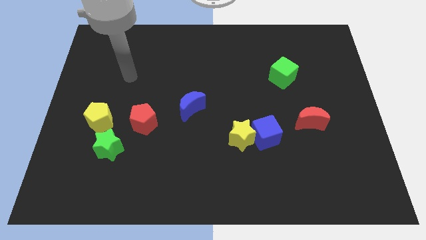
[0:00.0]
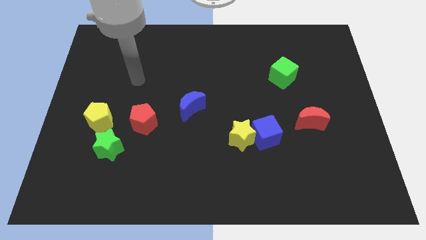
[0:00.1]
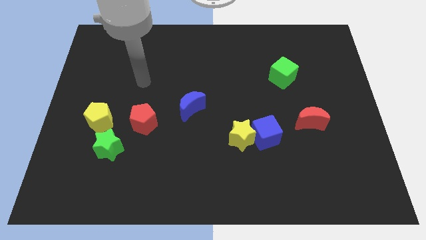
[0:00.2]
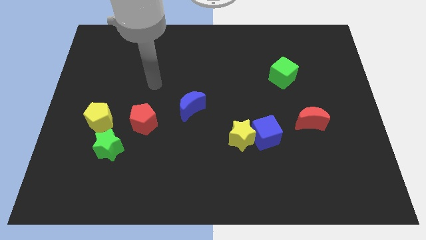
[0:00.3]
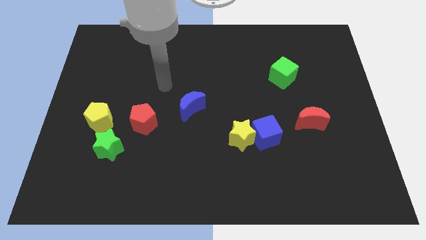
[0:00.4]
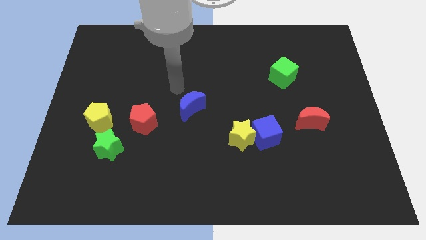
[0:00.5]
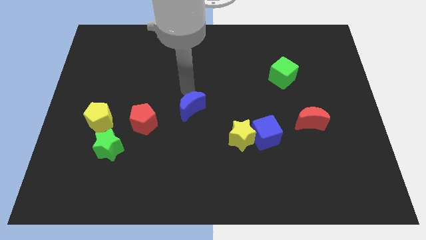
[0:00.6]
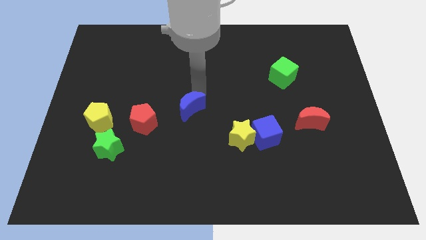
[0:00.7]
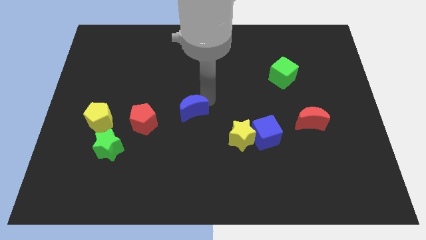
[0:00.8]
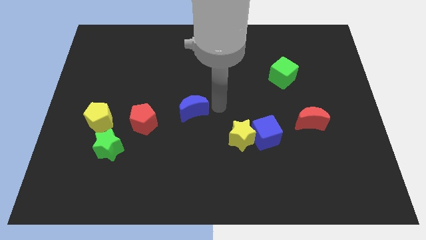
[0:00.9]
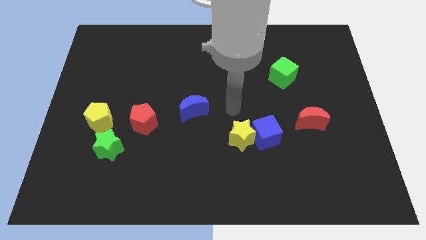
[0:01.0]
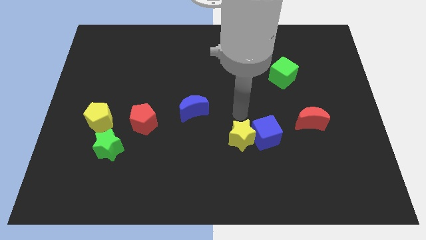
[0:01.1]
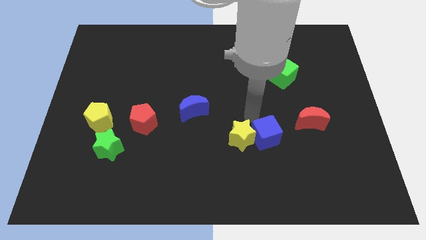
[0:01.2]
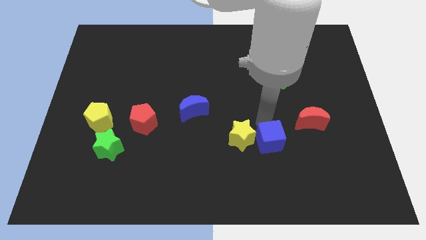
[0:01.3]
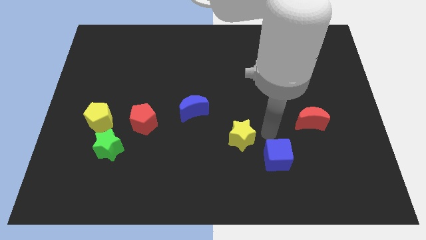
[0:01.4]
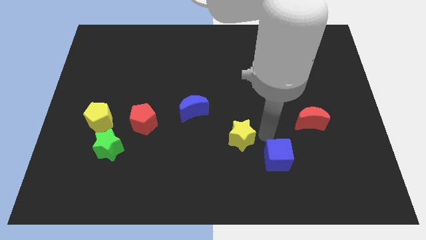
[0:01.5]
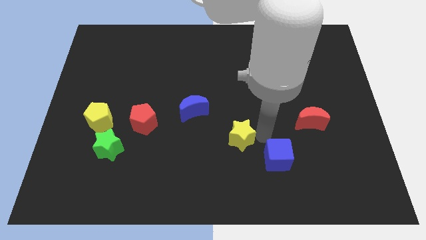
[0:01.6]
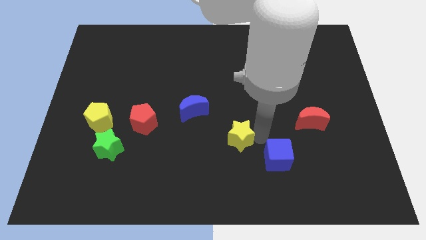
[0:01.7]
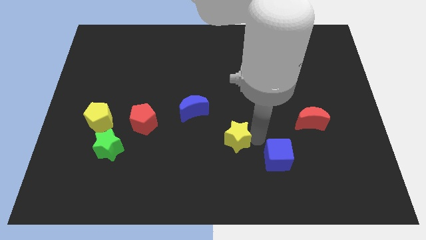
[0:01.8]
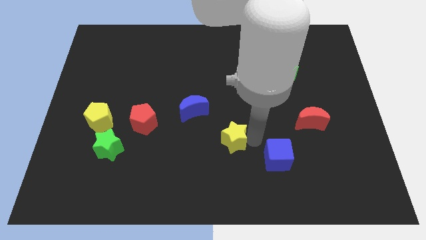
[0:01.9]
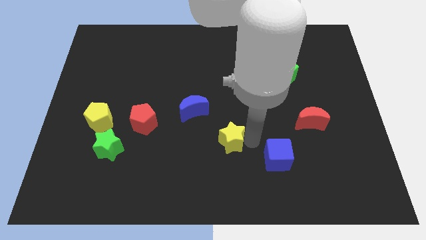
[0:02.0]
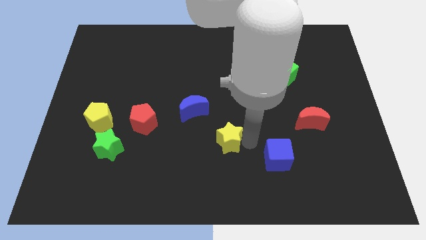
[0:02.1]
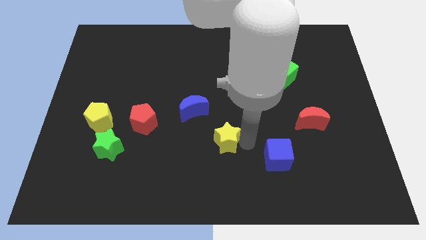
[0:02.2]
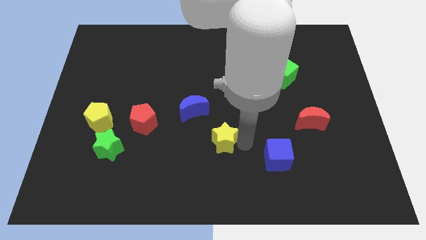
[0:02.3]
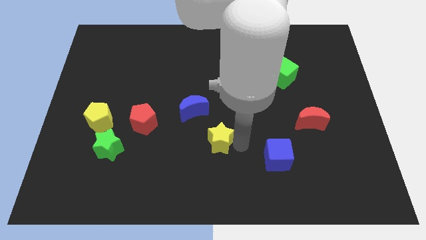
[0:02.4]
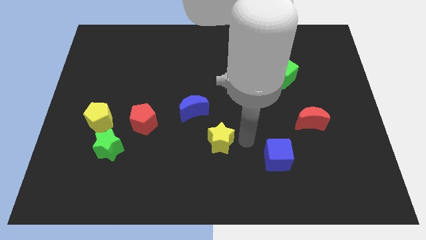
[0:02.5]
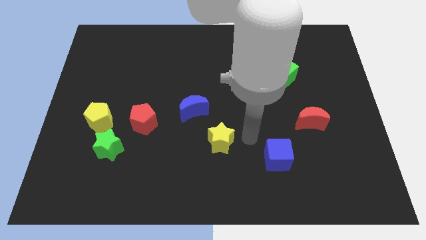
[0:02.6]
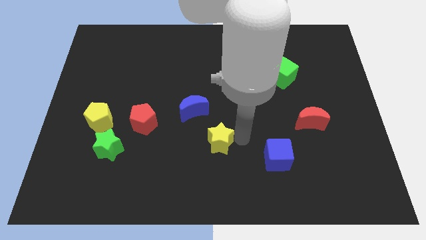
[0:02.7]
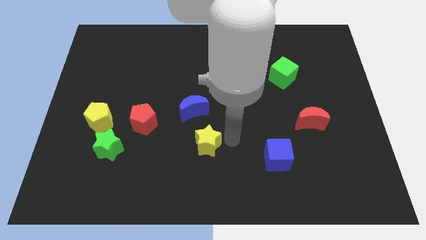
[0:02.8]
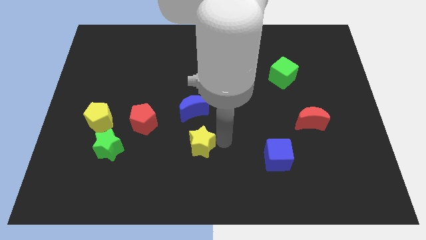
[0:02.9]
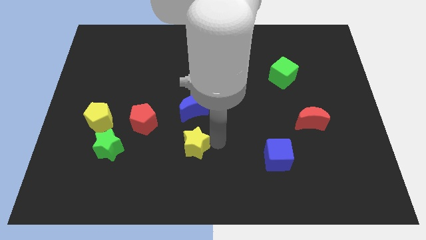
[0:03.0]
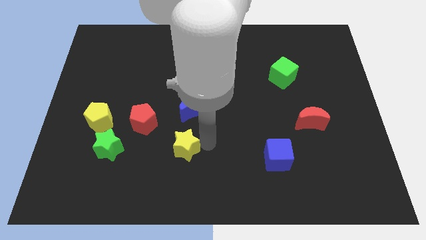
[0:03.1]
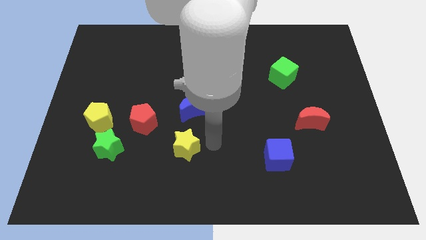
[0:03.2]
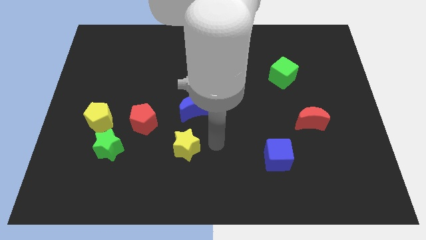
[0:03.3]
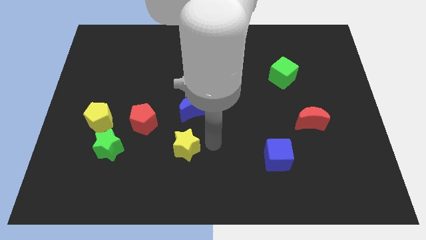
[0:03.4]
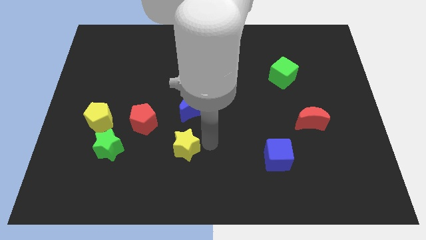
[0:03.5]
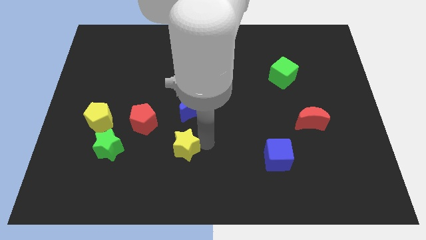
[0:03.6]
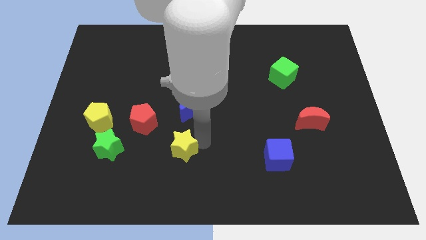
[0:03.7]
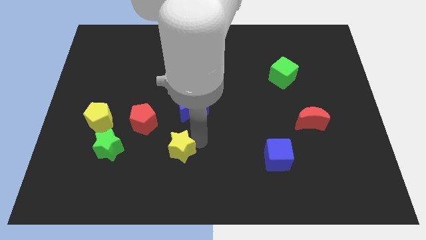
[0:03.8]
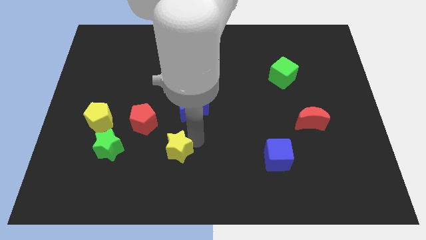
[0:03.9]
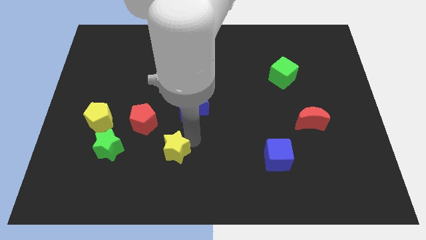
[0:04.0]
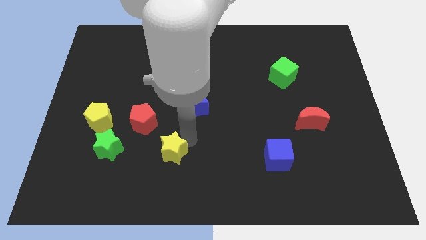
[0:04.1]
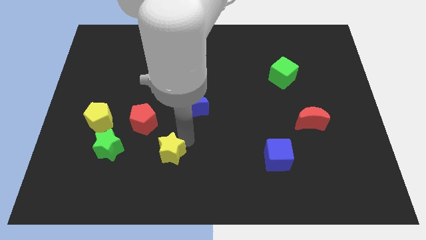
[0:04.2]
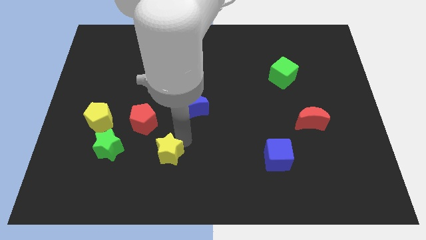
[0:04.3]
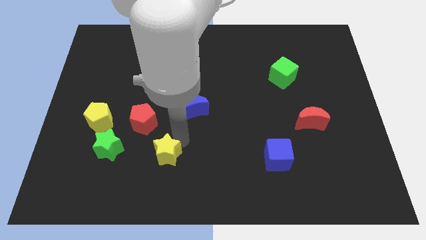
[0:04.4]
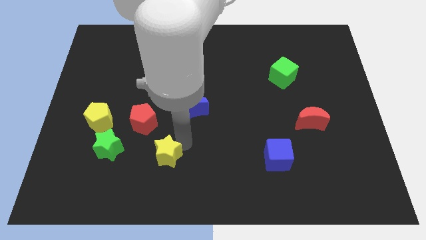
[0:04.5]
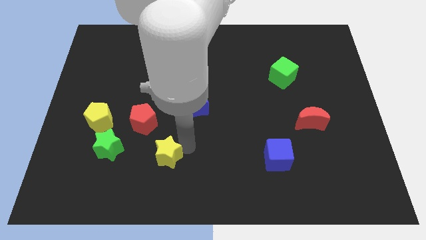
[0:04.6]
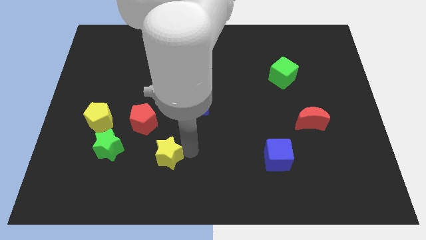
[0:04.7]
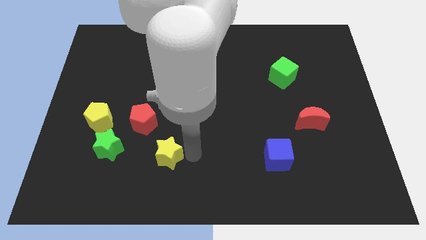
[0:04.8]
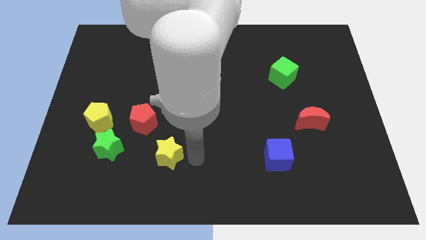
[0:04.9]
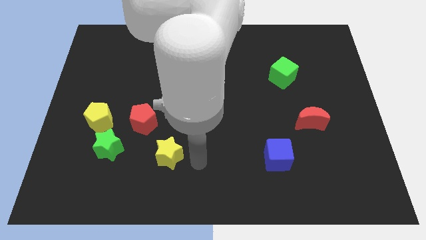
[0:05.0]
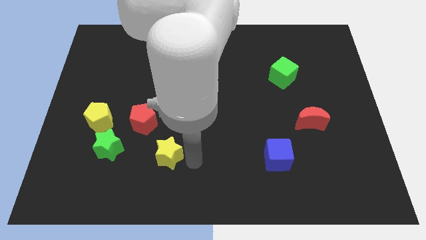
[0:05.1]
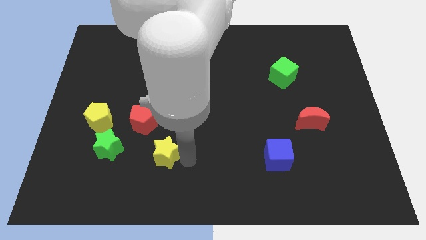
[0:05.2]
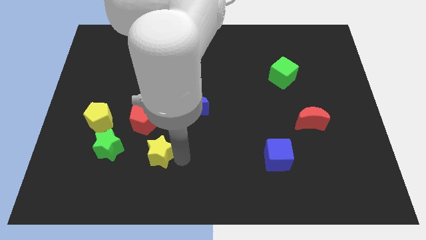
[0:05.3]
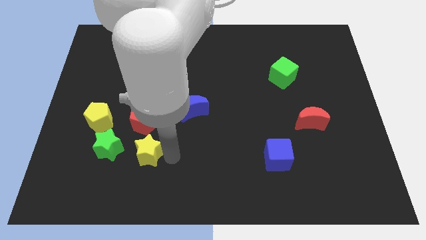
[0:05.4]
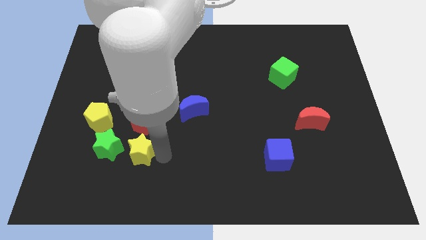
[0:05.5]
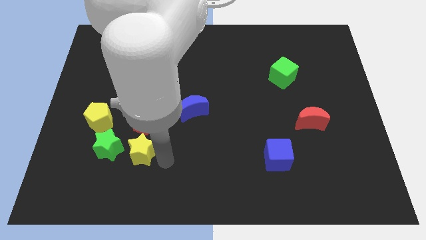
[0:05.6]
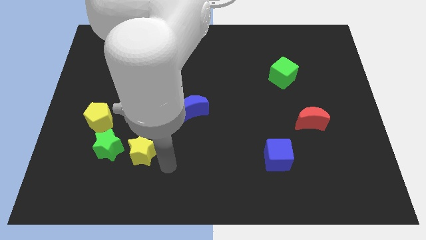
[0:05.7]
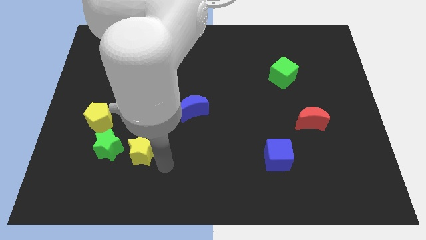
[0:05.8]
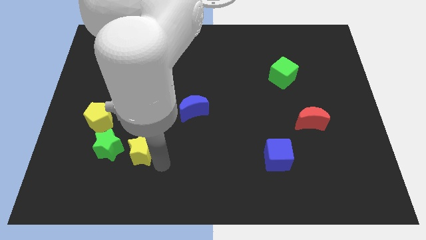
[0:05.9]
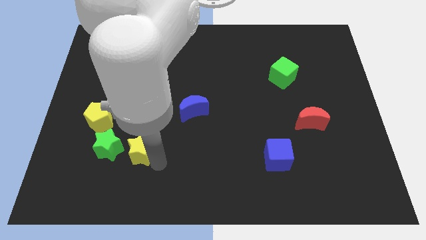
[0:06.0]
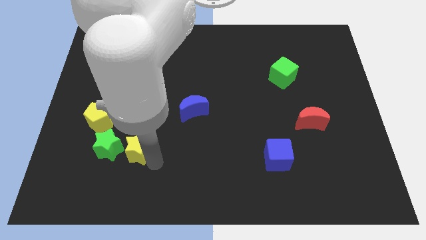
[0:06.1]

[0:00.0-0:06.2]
move the yellow star diagonally down and to the right of the yellow pentagon
